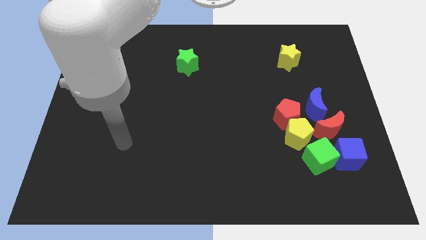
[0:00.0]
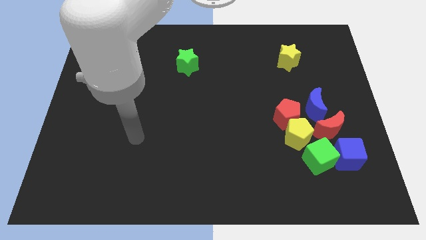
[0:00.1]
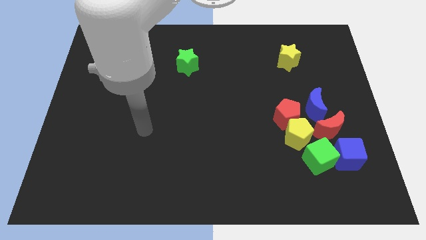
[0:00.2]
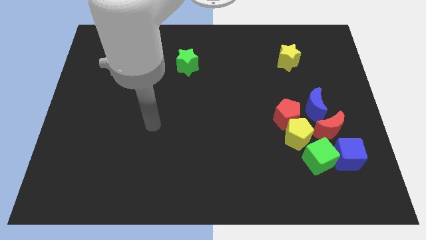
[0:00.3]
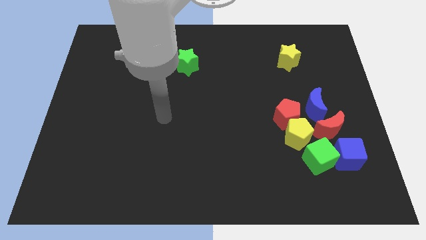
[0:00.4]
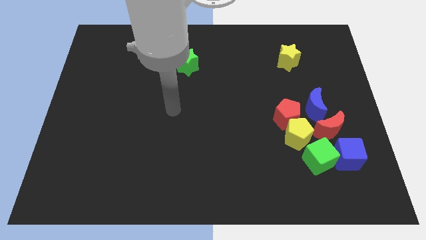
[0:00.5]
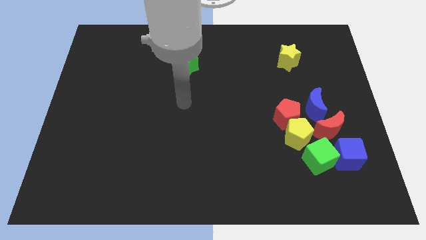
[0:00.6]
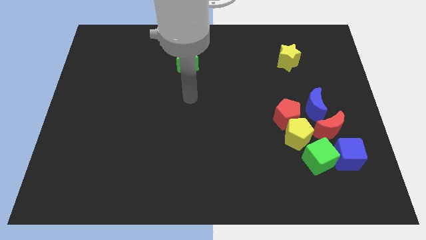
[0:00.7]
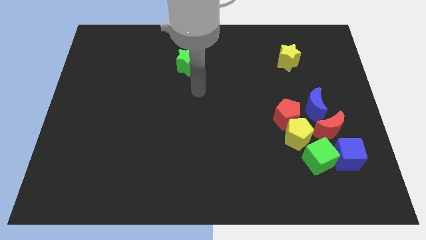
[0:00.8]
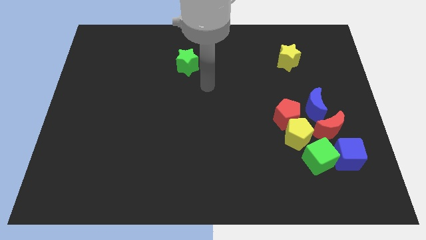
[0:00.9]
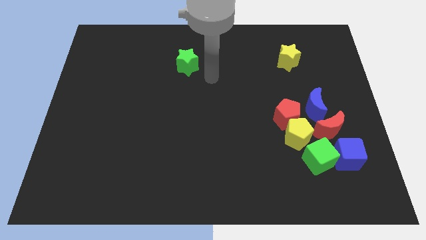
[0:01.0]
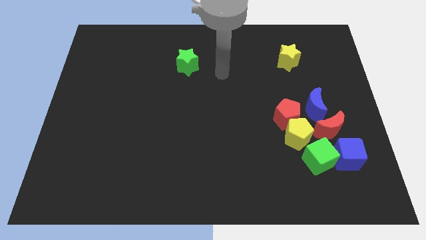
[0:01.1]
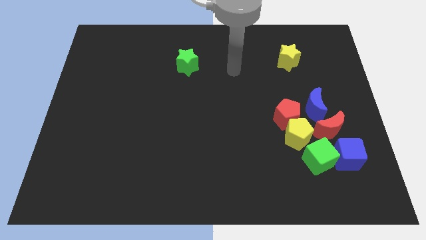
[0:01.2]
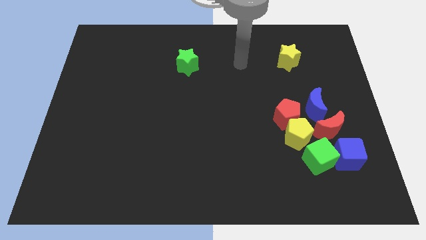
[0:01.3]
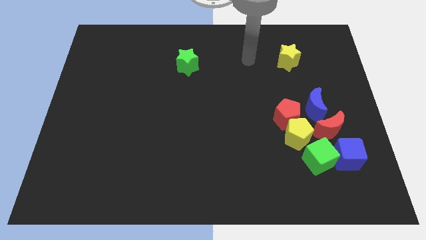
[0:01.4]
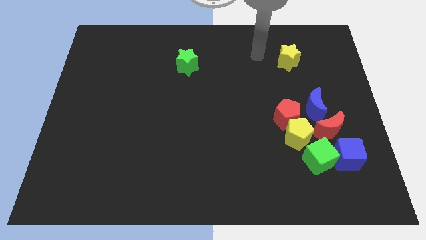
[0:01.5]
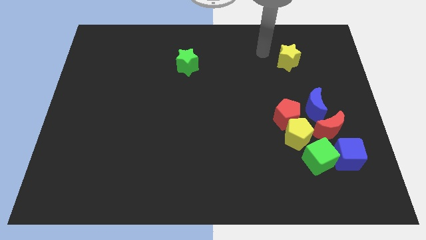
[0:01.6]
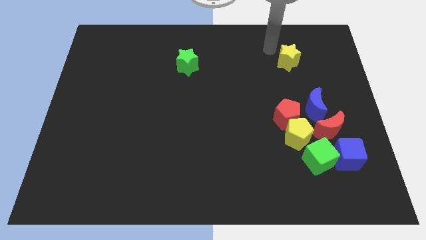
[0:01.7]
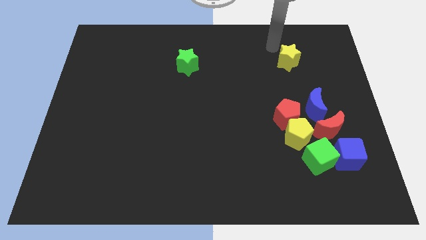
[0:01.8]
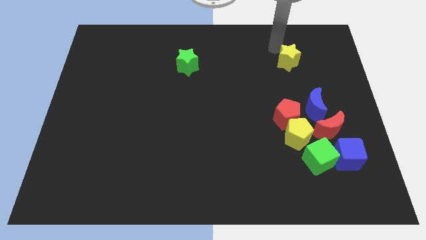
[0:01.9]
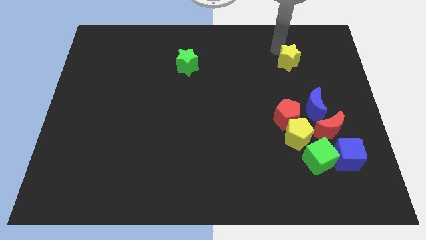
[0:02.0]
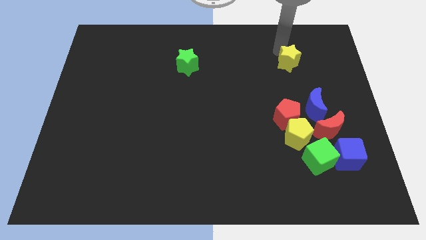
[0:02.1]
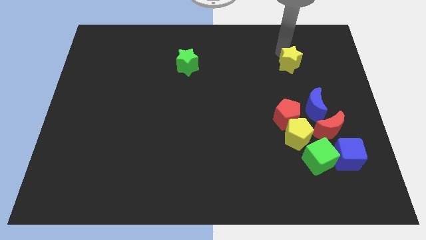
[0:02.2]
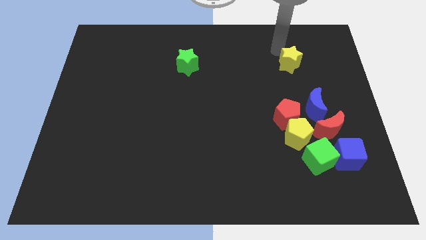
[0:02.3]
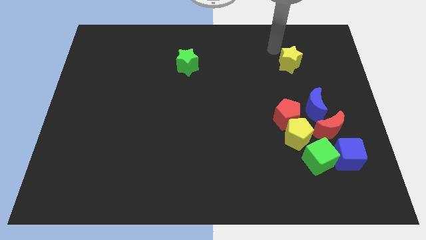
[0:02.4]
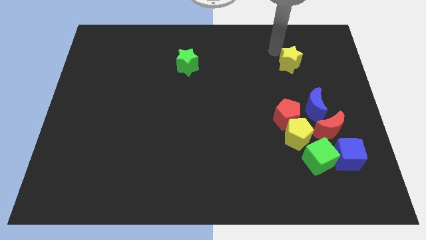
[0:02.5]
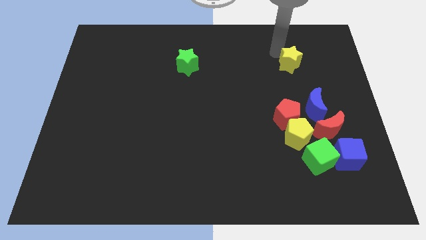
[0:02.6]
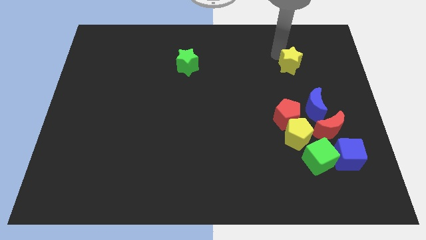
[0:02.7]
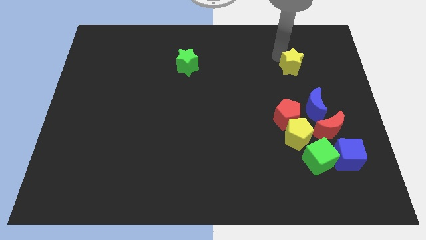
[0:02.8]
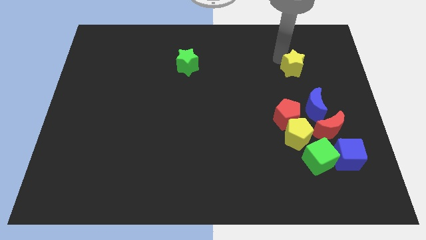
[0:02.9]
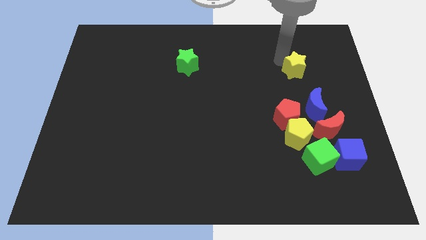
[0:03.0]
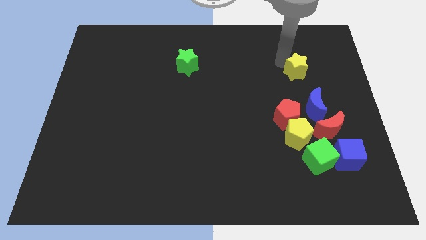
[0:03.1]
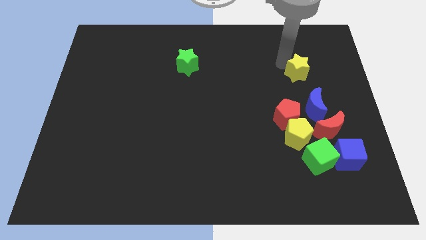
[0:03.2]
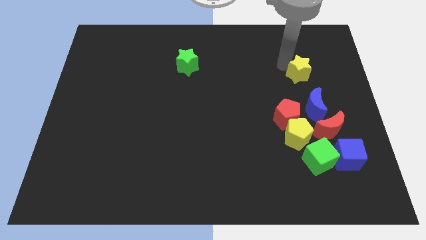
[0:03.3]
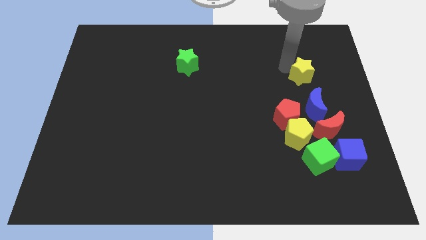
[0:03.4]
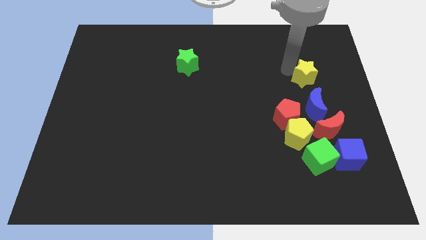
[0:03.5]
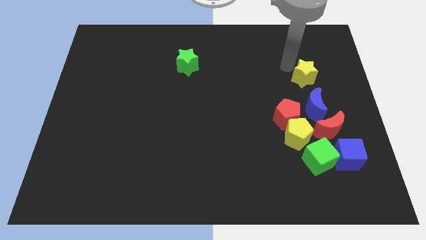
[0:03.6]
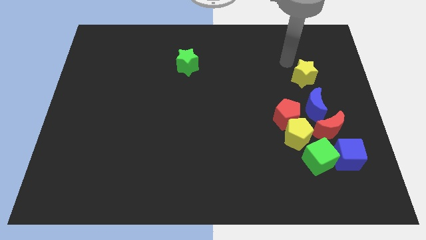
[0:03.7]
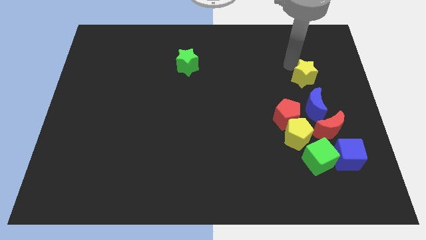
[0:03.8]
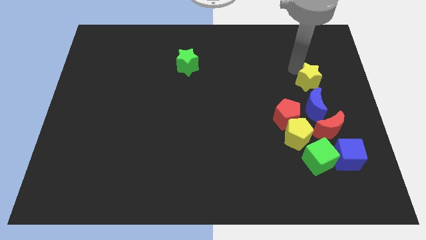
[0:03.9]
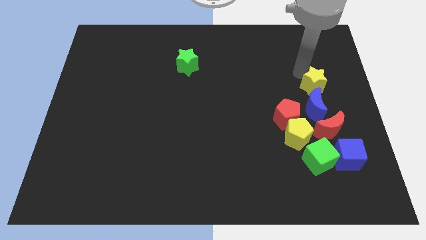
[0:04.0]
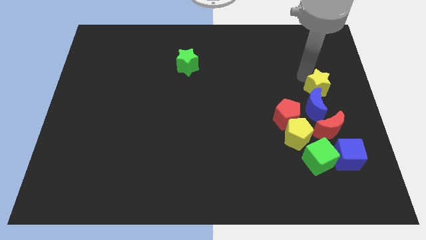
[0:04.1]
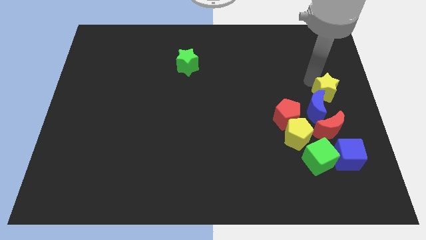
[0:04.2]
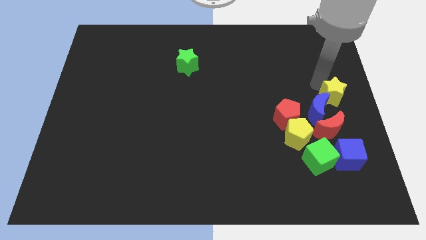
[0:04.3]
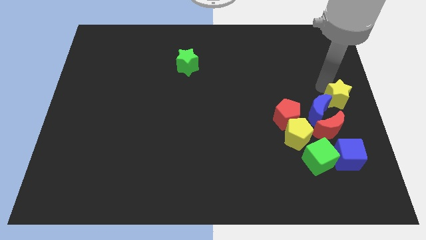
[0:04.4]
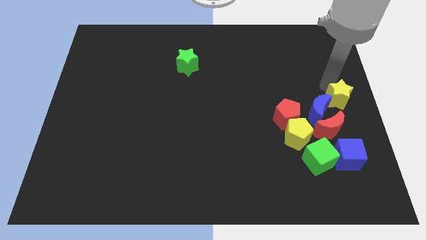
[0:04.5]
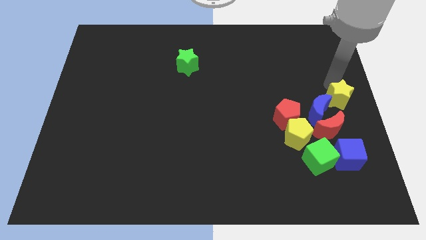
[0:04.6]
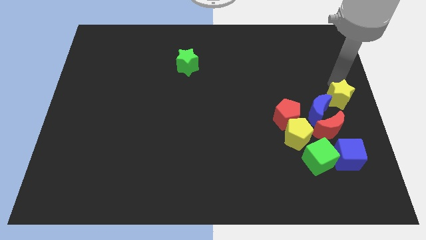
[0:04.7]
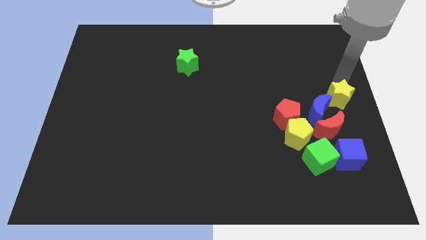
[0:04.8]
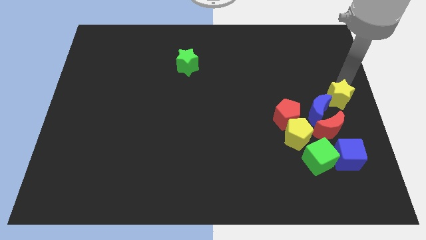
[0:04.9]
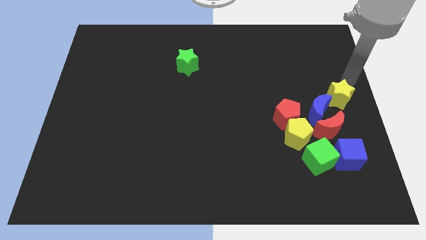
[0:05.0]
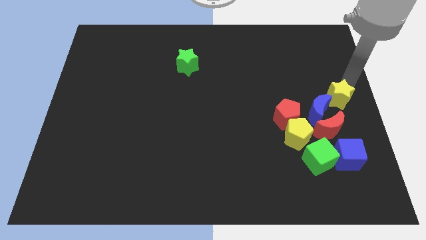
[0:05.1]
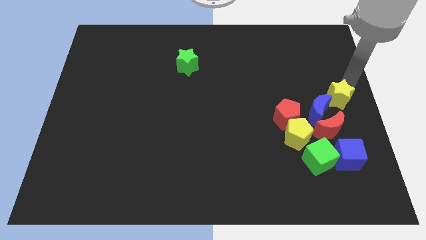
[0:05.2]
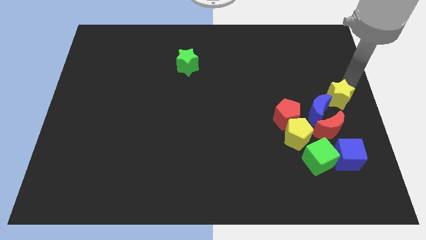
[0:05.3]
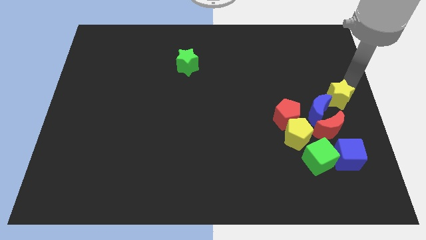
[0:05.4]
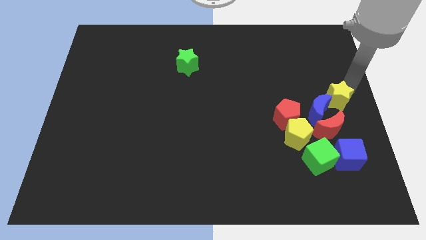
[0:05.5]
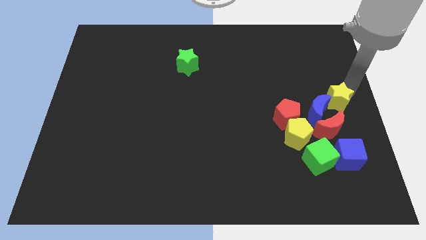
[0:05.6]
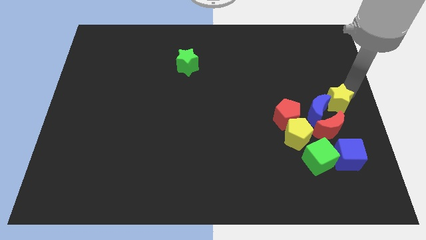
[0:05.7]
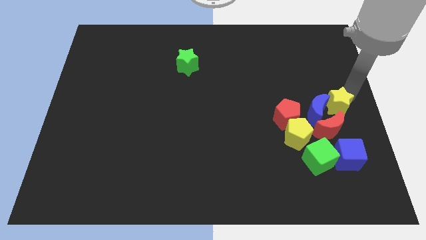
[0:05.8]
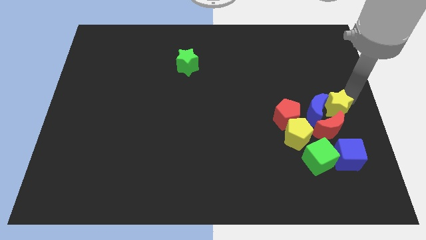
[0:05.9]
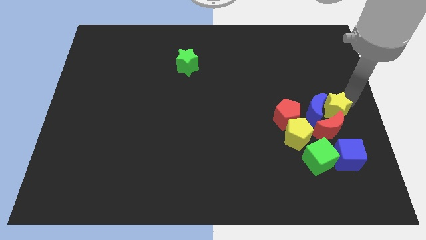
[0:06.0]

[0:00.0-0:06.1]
push the yellow star next to the red moon

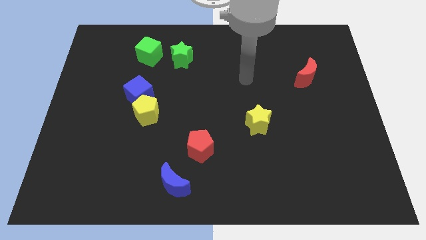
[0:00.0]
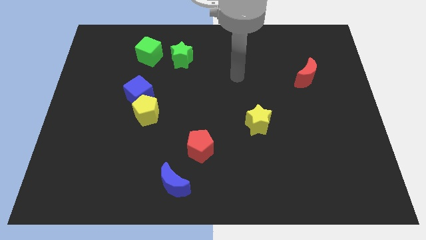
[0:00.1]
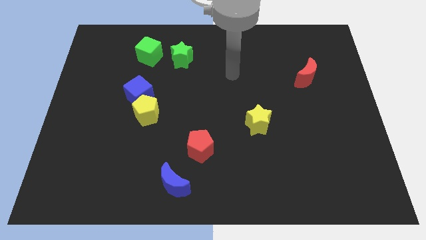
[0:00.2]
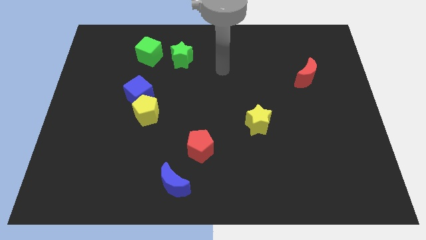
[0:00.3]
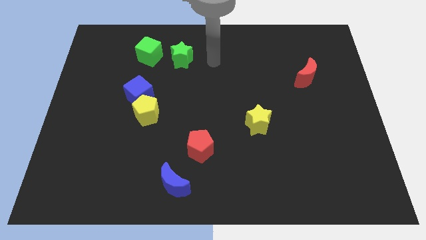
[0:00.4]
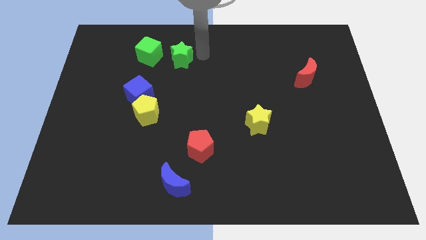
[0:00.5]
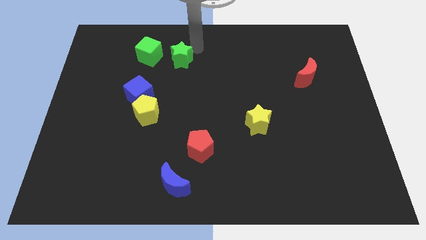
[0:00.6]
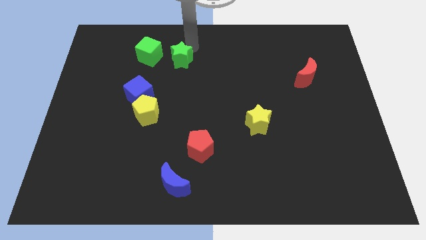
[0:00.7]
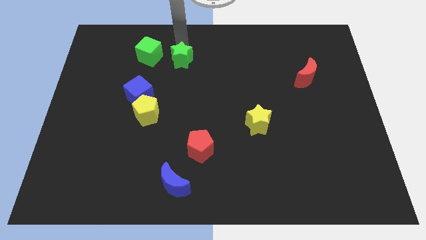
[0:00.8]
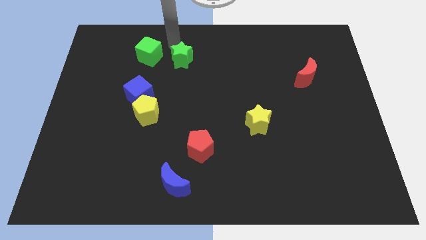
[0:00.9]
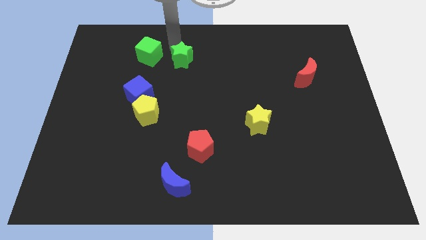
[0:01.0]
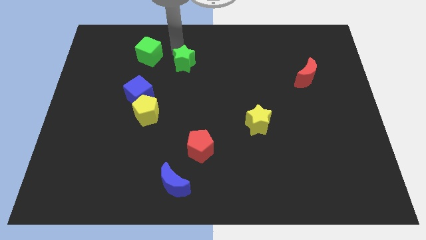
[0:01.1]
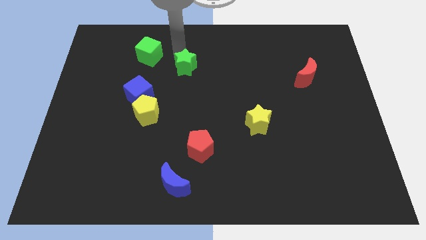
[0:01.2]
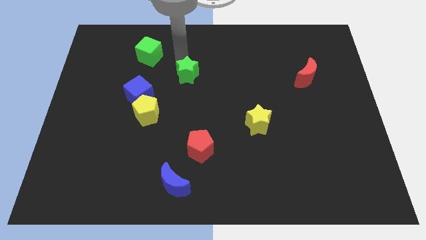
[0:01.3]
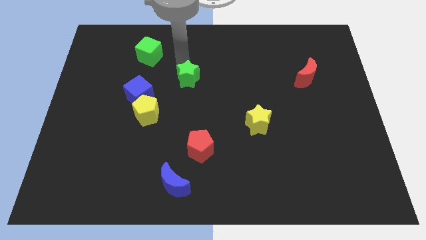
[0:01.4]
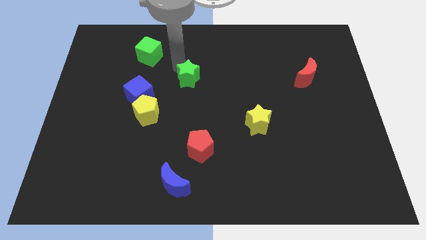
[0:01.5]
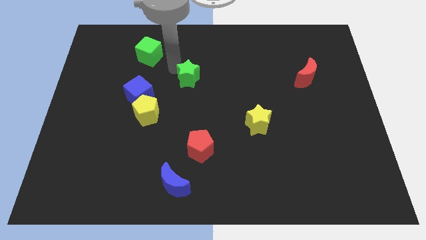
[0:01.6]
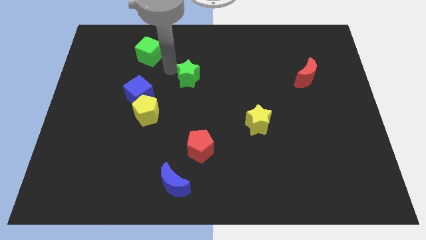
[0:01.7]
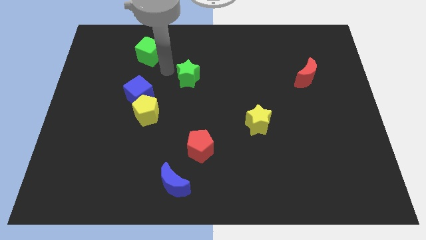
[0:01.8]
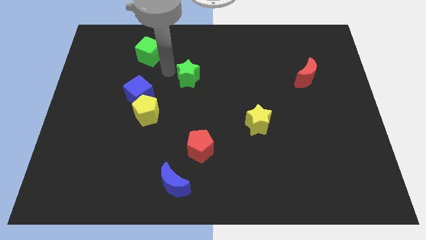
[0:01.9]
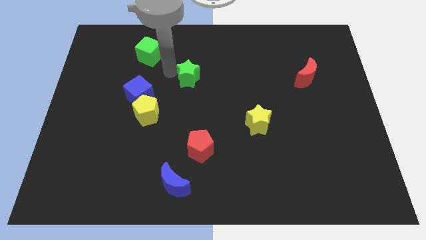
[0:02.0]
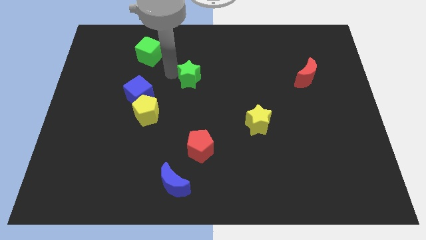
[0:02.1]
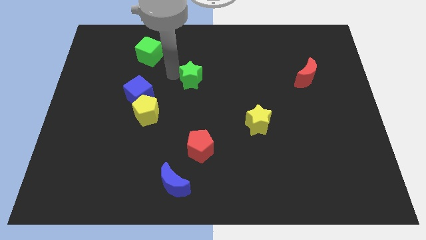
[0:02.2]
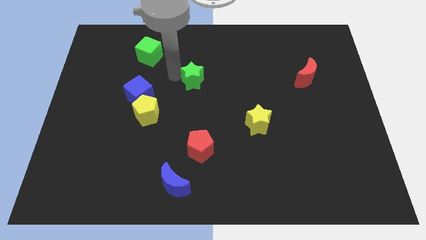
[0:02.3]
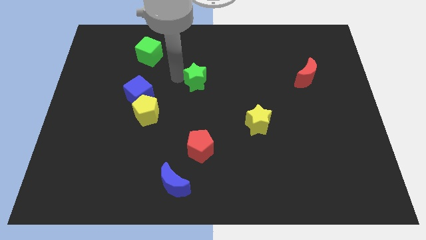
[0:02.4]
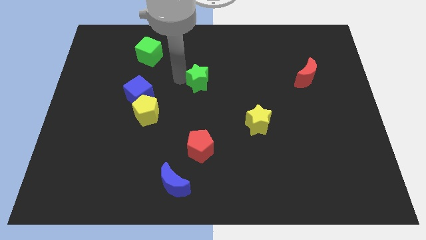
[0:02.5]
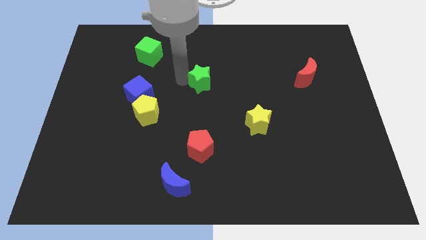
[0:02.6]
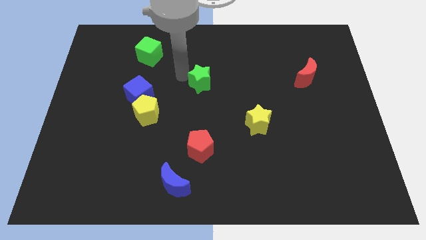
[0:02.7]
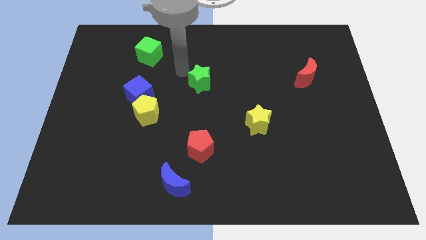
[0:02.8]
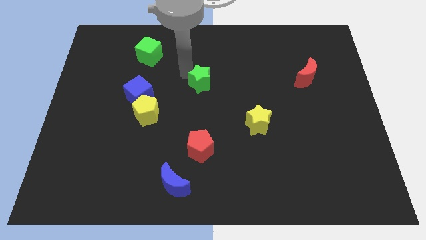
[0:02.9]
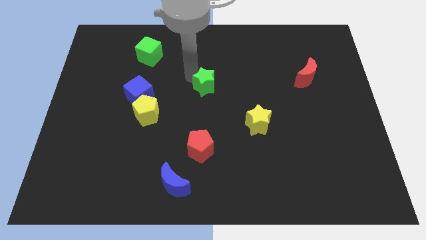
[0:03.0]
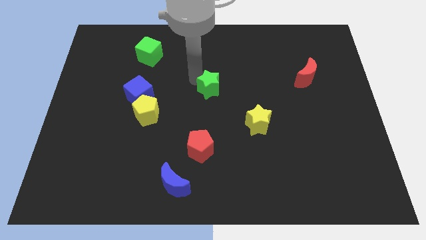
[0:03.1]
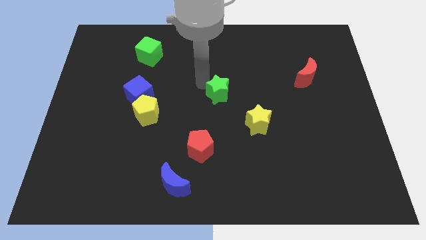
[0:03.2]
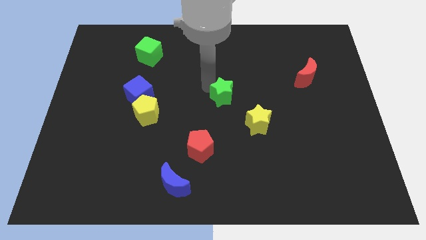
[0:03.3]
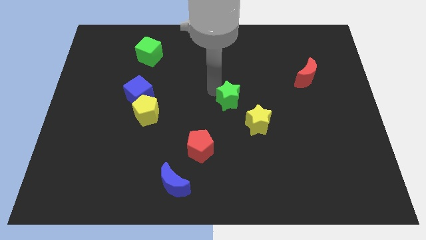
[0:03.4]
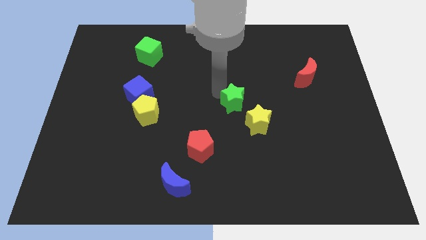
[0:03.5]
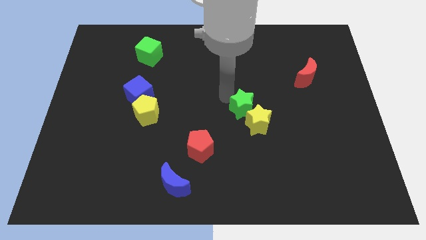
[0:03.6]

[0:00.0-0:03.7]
move the green star towards the yellow star
